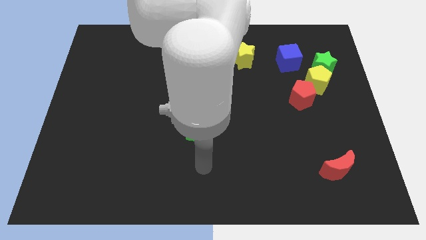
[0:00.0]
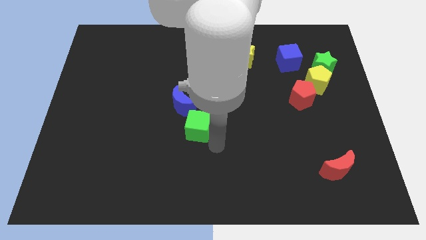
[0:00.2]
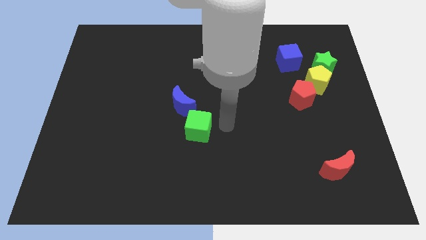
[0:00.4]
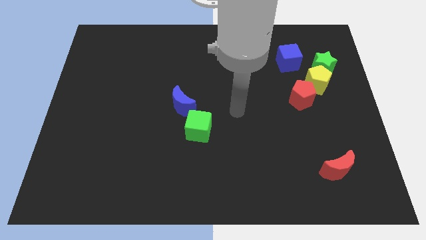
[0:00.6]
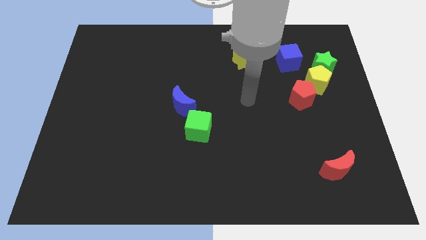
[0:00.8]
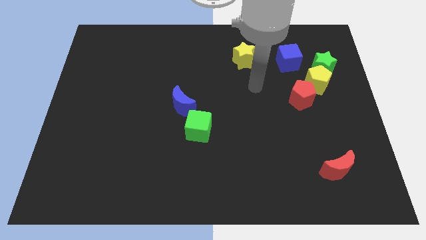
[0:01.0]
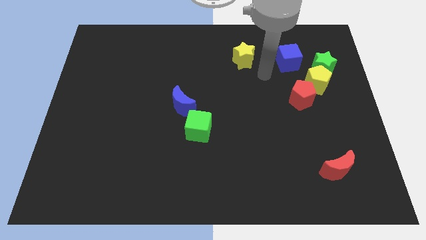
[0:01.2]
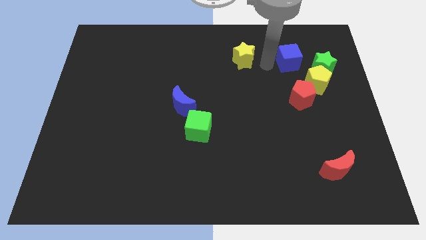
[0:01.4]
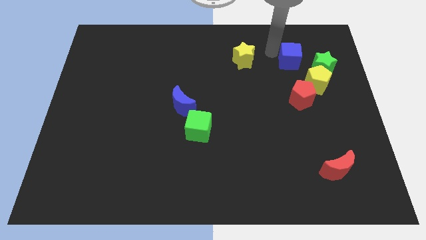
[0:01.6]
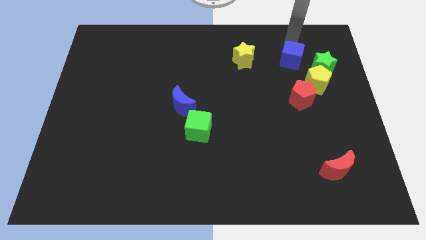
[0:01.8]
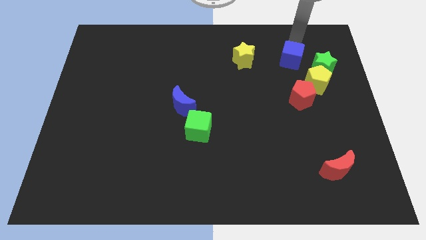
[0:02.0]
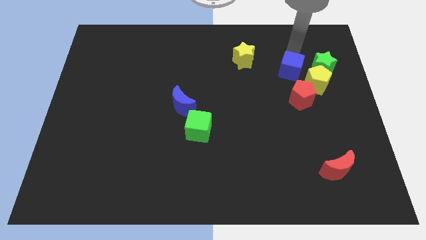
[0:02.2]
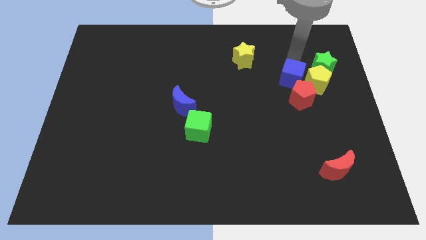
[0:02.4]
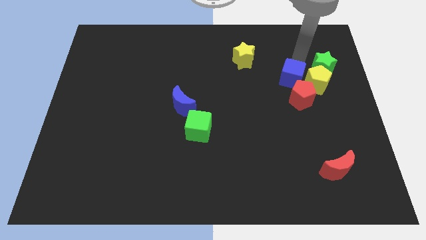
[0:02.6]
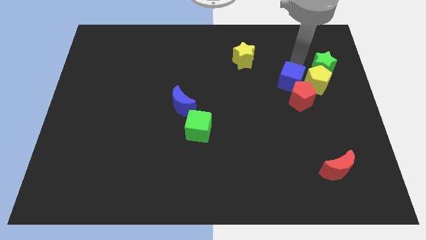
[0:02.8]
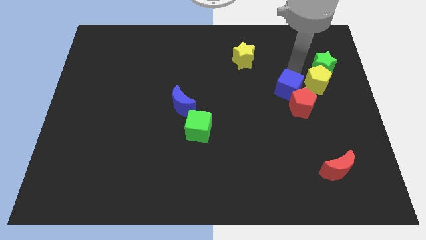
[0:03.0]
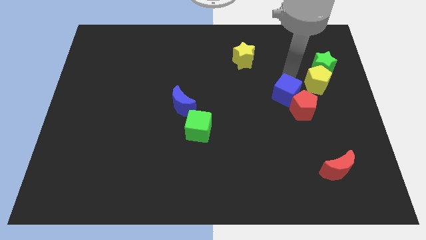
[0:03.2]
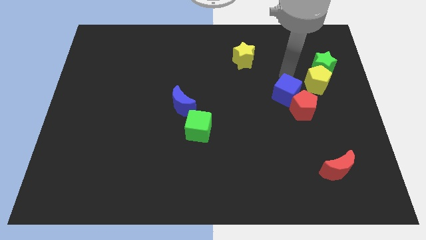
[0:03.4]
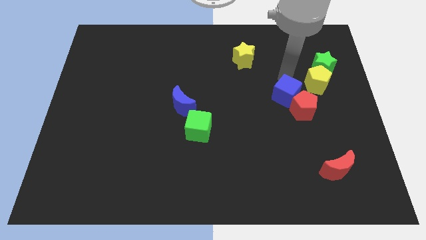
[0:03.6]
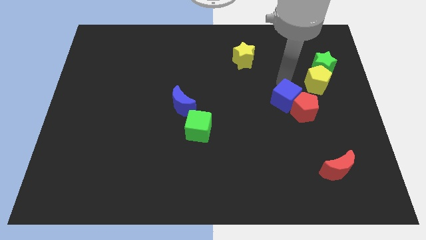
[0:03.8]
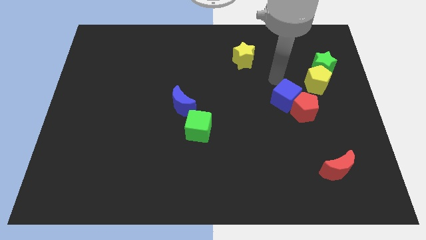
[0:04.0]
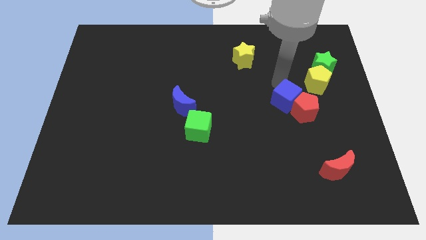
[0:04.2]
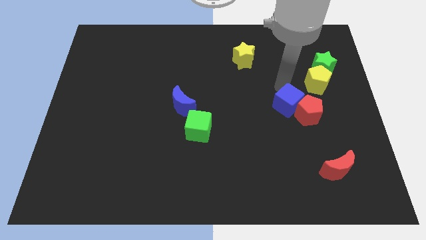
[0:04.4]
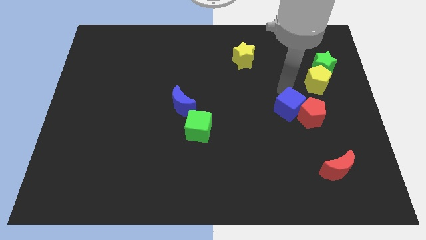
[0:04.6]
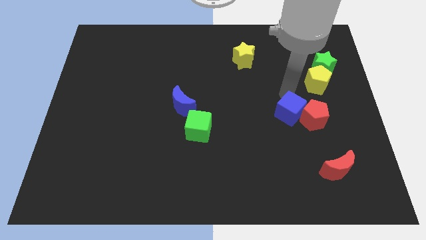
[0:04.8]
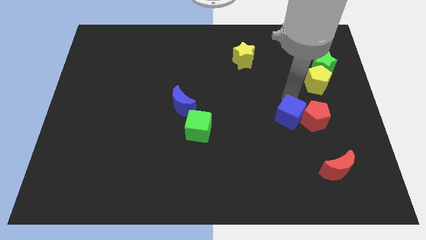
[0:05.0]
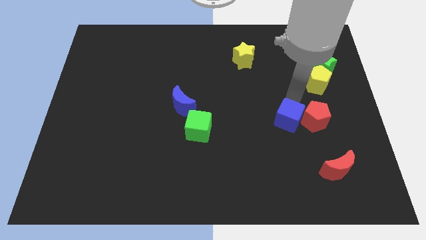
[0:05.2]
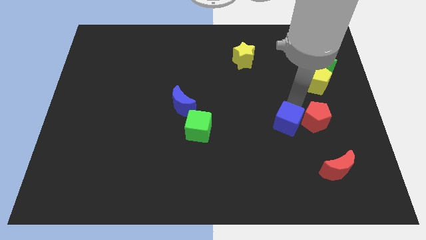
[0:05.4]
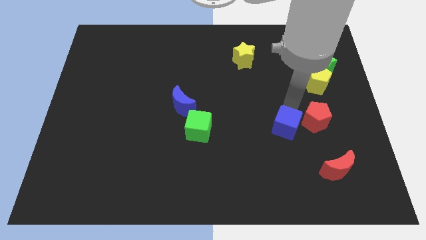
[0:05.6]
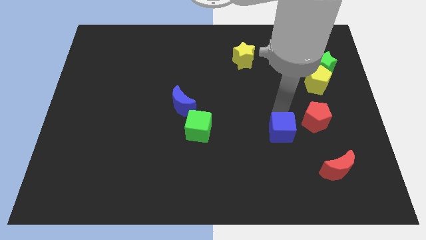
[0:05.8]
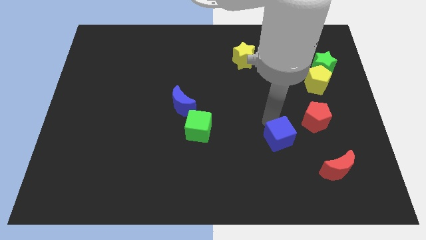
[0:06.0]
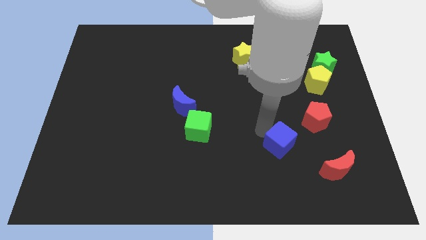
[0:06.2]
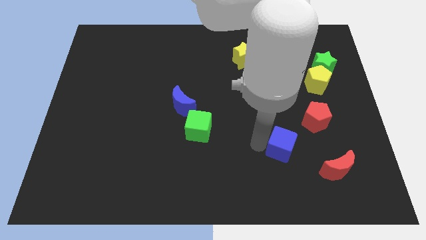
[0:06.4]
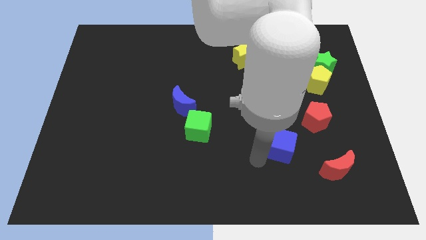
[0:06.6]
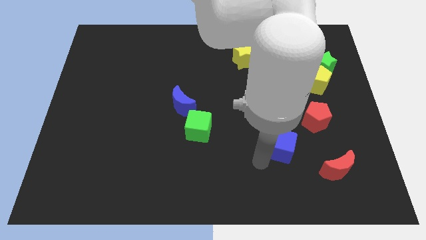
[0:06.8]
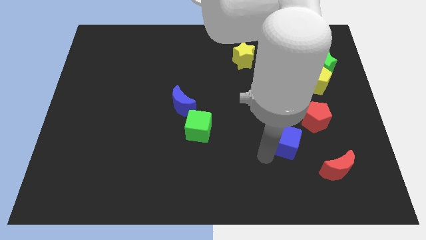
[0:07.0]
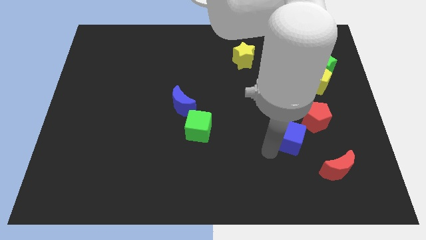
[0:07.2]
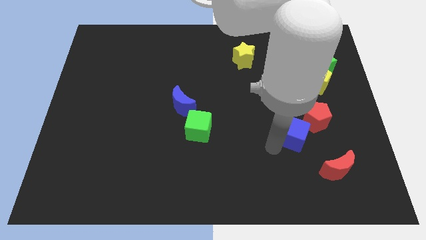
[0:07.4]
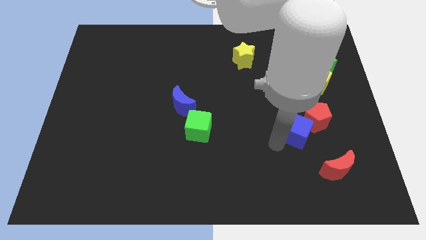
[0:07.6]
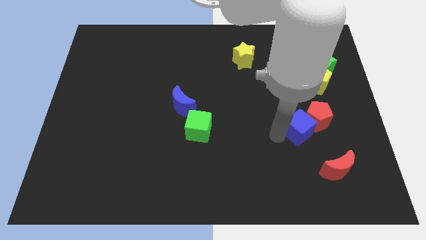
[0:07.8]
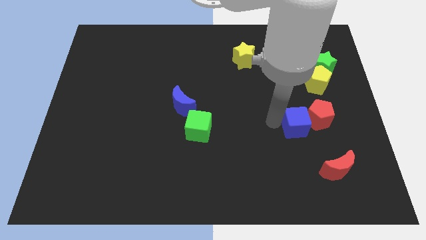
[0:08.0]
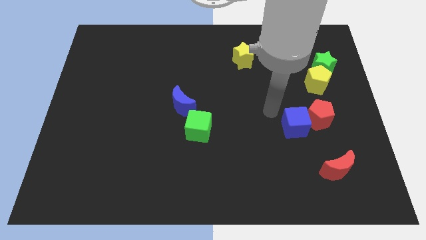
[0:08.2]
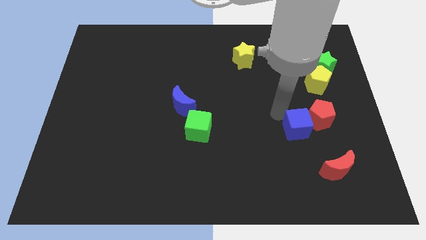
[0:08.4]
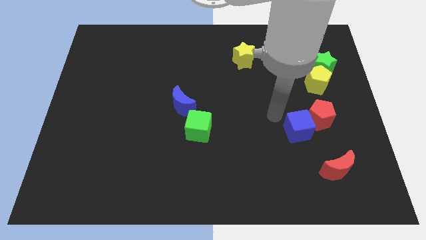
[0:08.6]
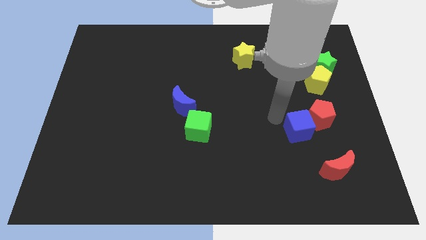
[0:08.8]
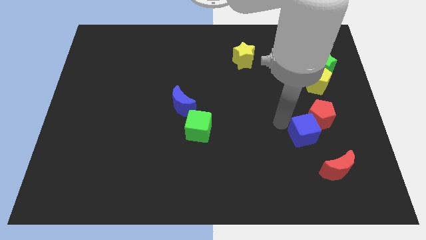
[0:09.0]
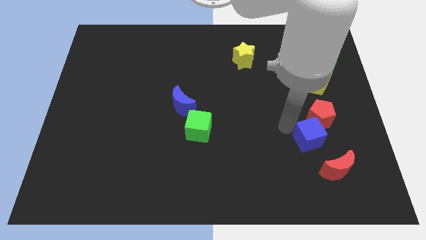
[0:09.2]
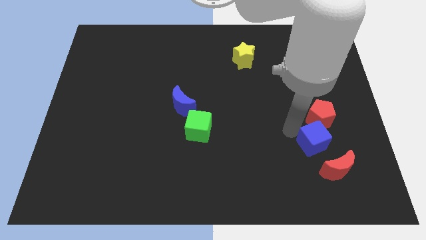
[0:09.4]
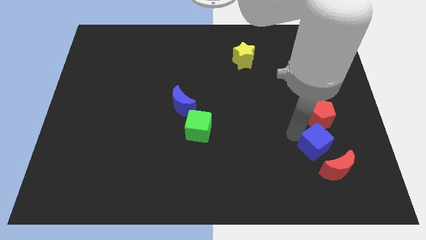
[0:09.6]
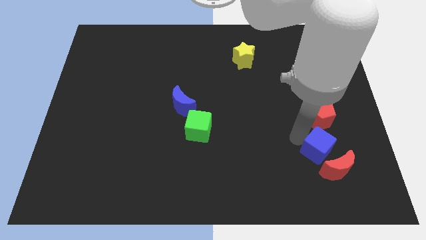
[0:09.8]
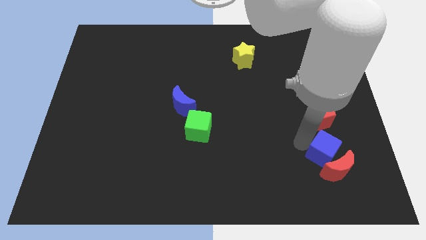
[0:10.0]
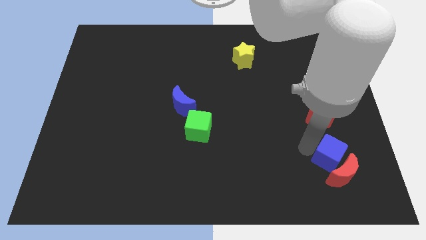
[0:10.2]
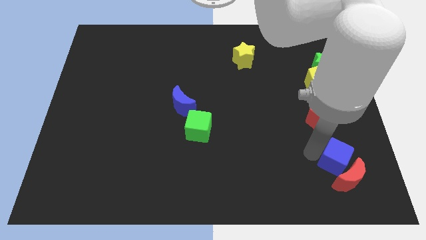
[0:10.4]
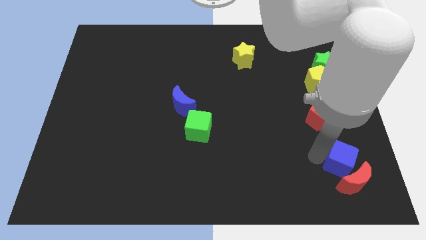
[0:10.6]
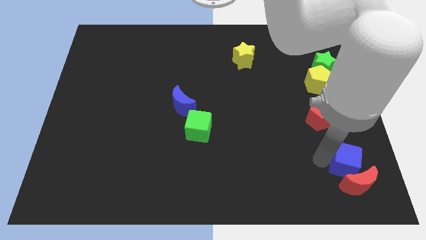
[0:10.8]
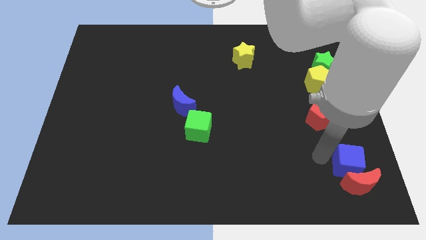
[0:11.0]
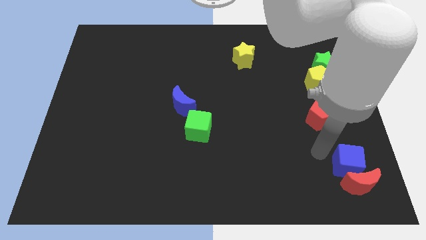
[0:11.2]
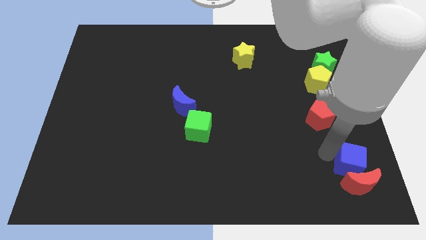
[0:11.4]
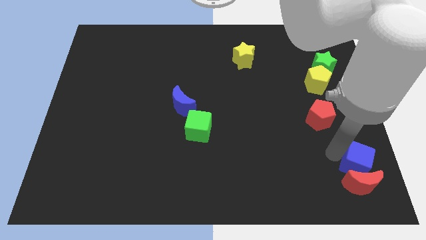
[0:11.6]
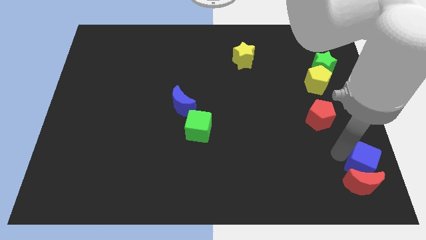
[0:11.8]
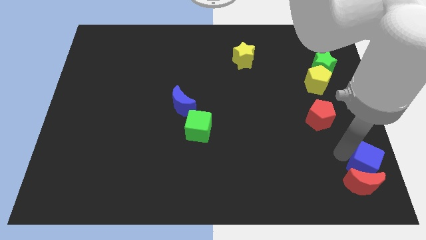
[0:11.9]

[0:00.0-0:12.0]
put the blue cube to the bottom right corner
